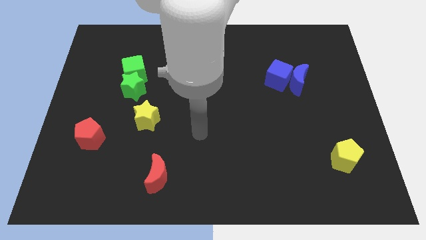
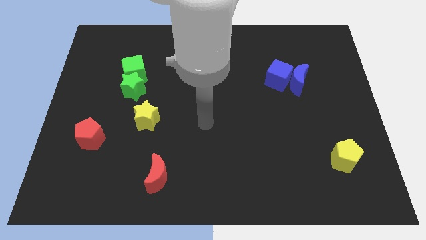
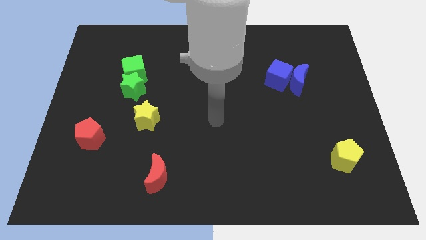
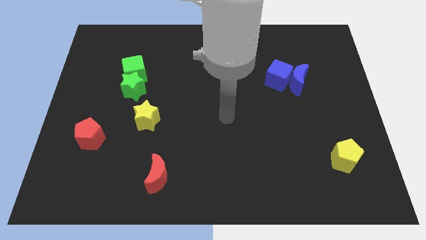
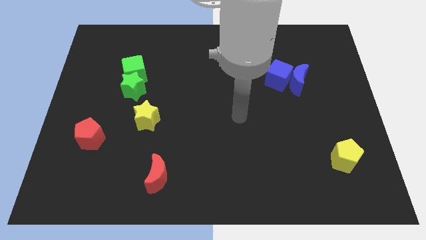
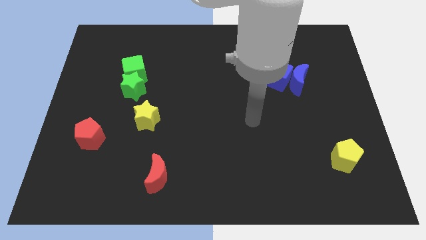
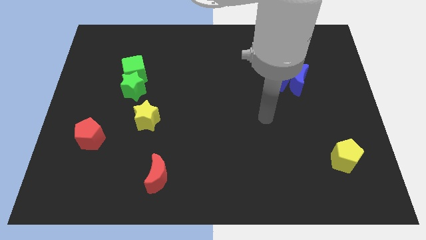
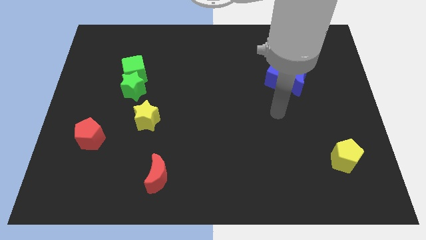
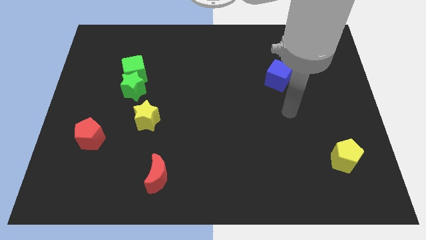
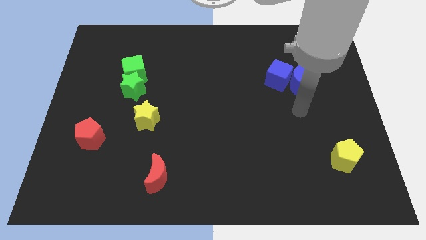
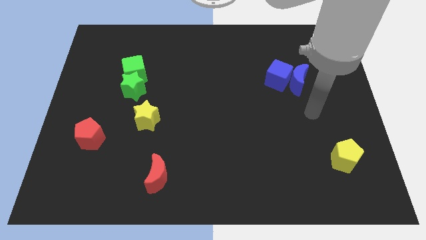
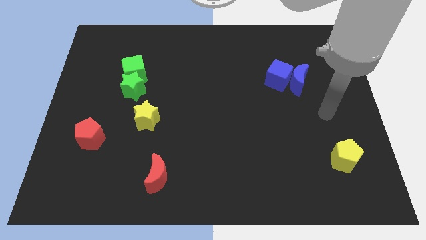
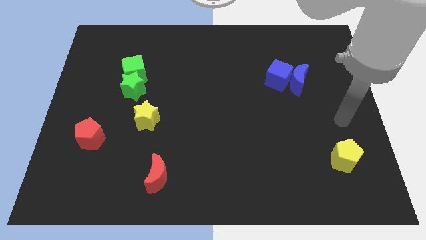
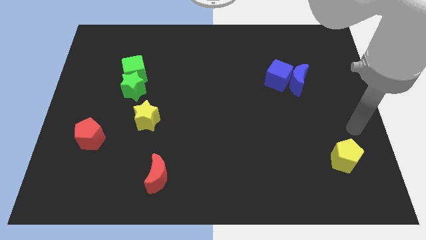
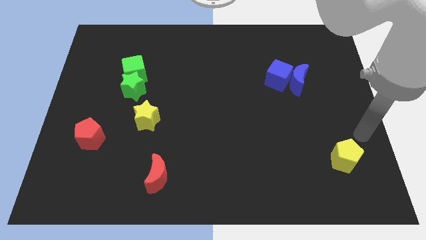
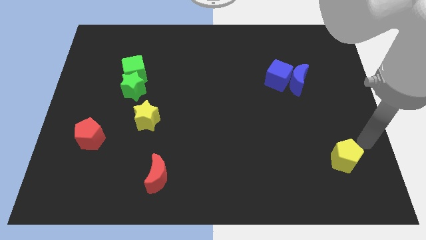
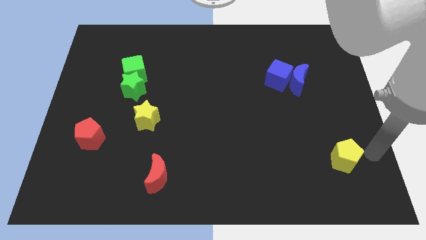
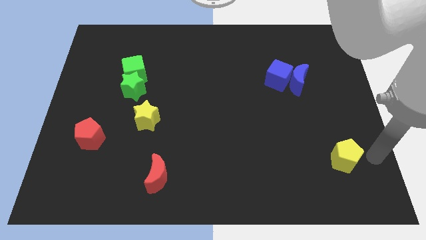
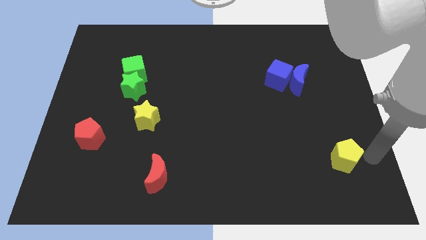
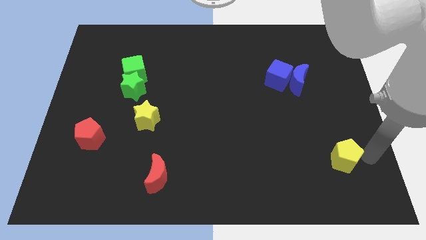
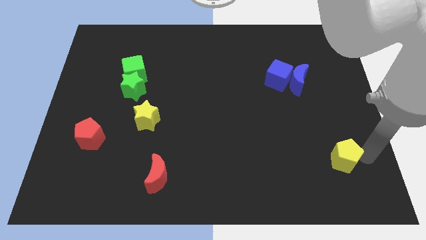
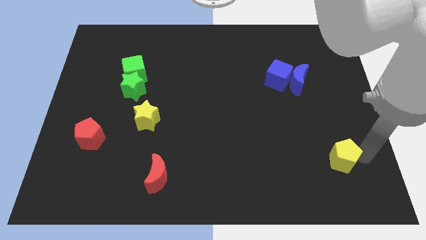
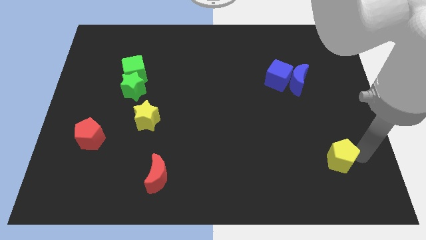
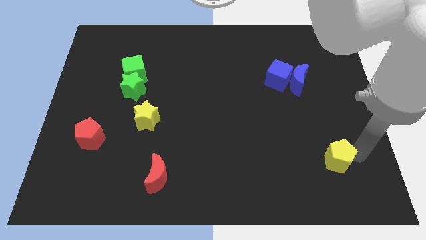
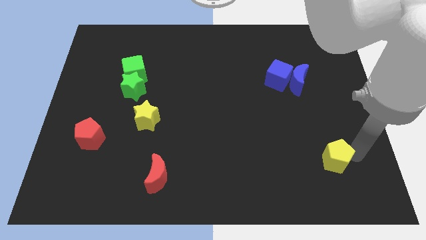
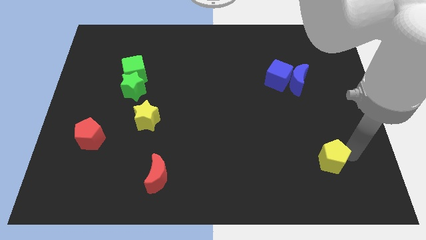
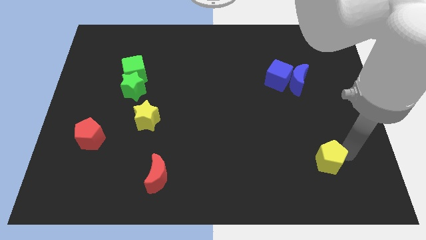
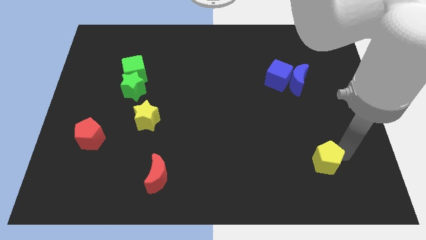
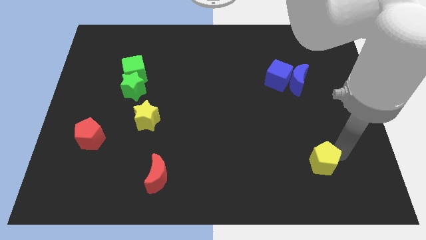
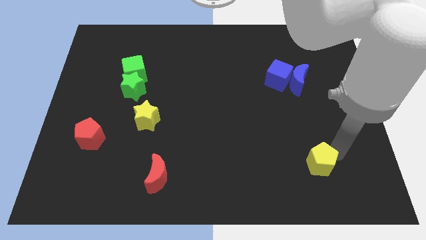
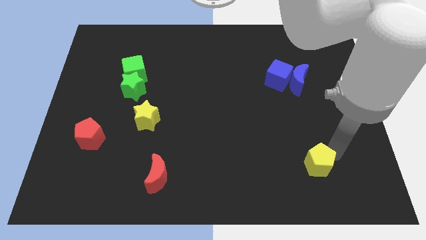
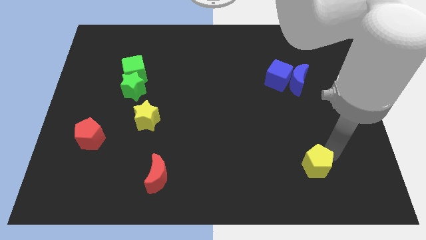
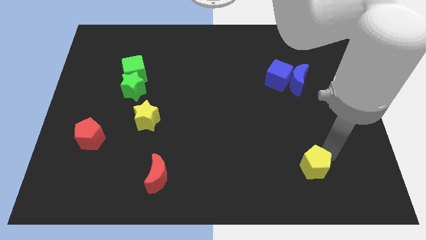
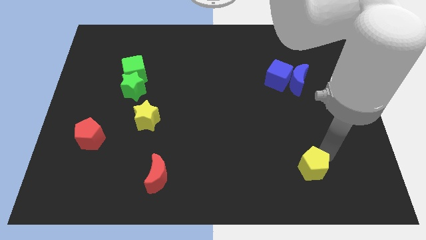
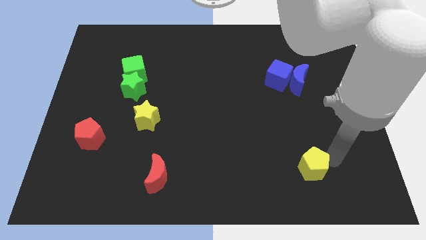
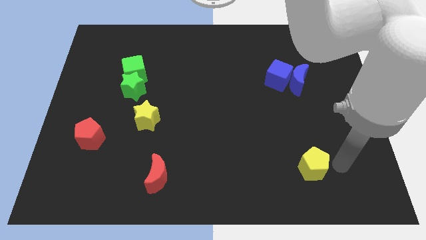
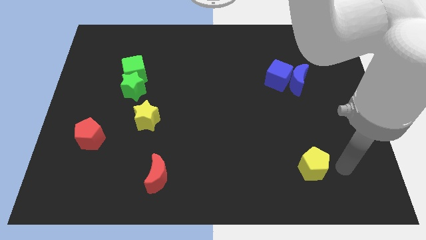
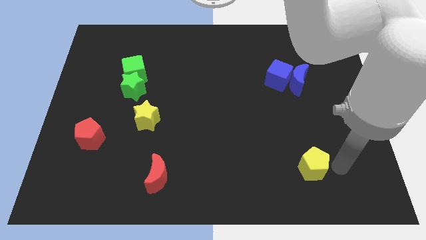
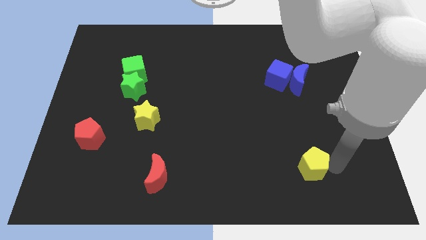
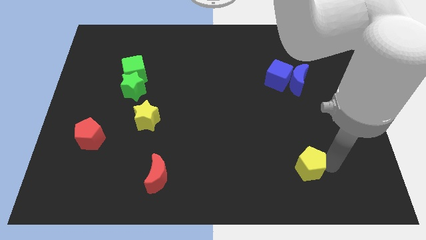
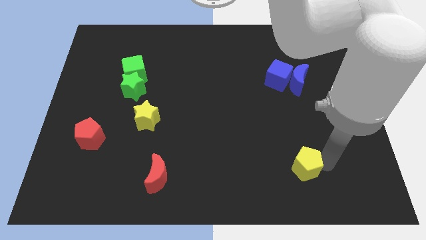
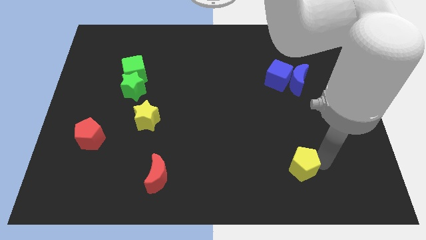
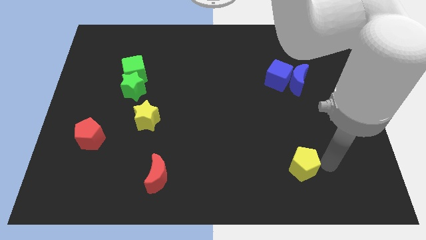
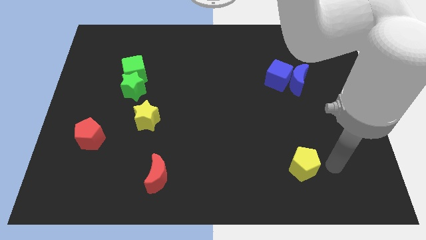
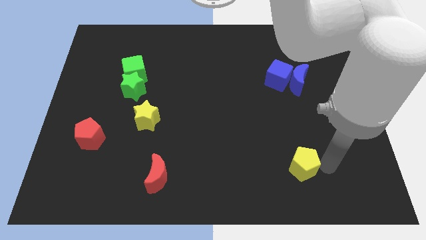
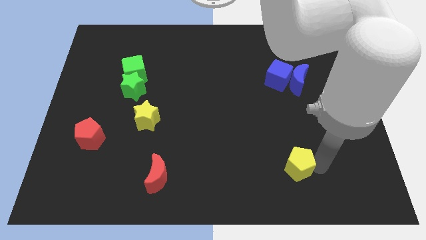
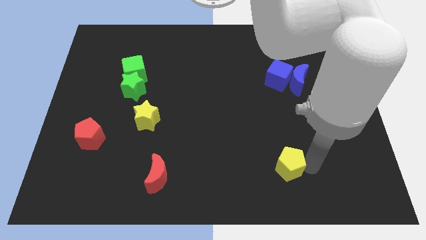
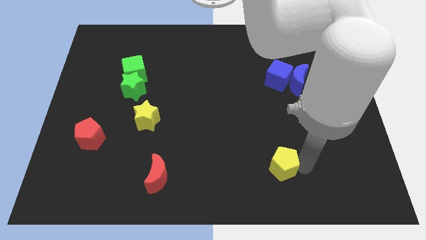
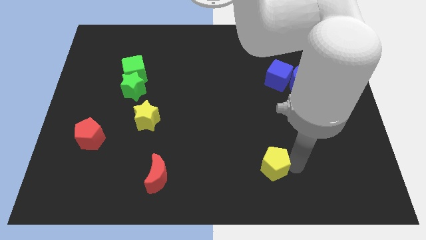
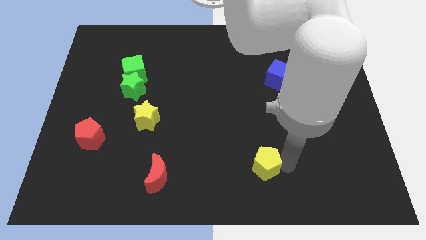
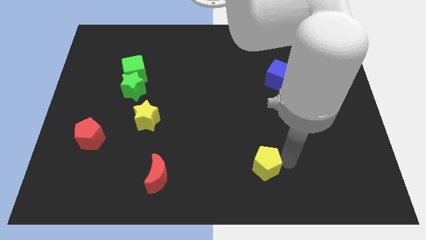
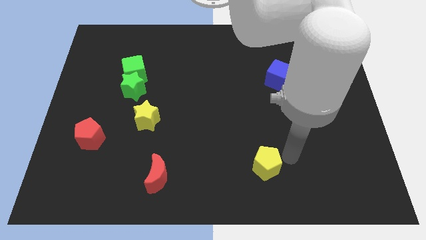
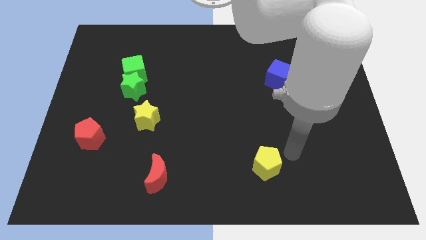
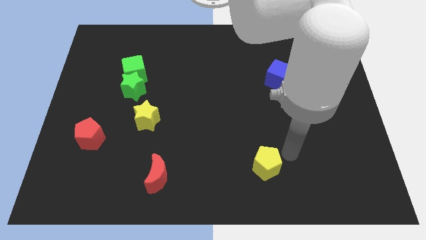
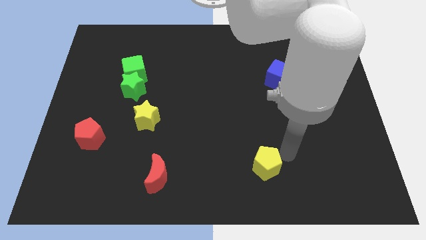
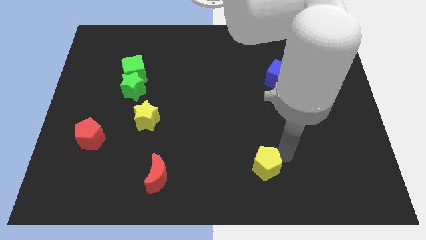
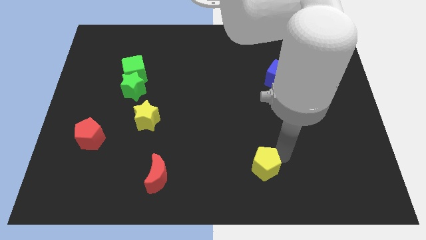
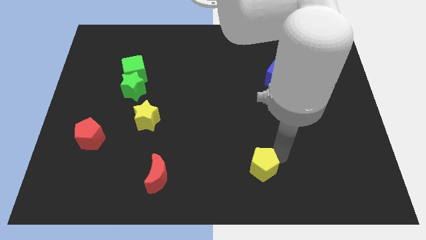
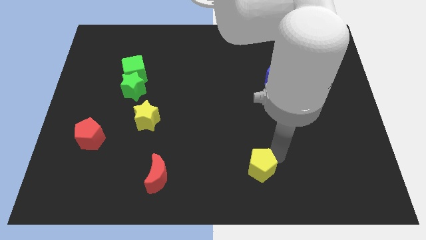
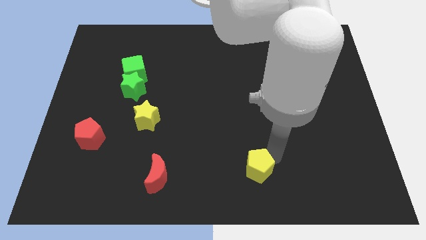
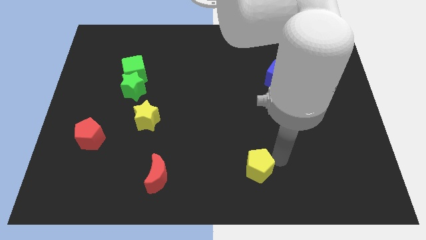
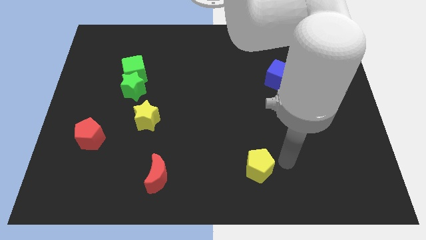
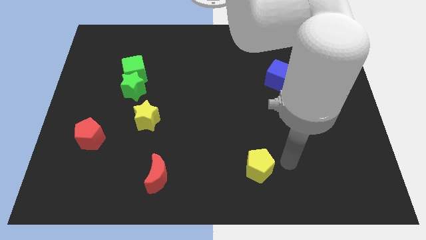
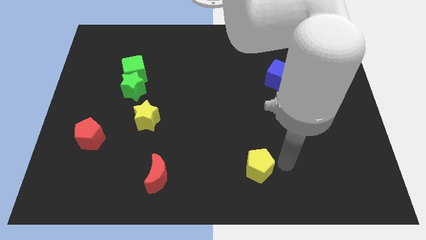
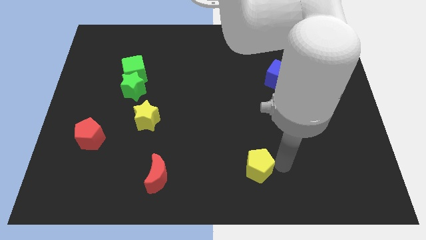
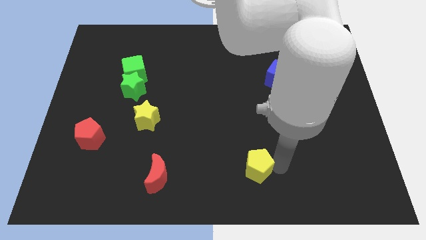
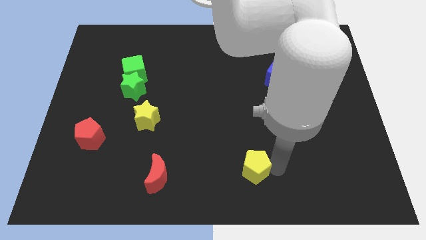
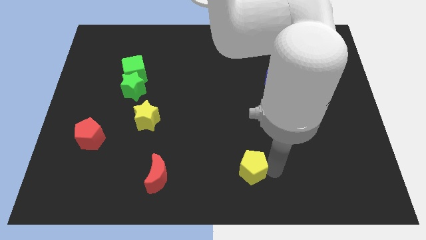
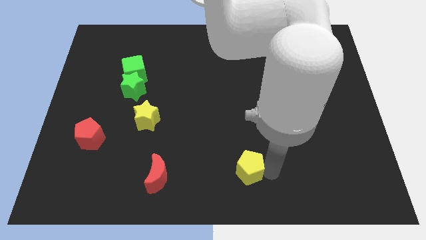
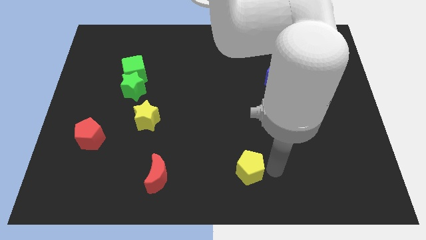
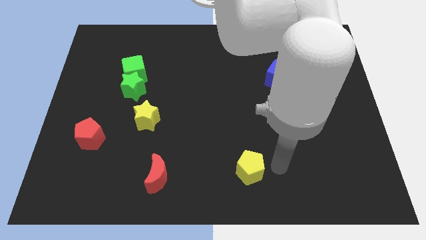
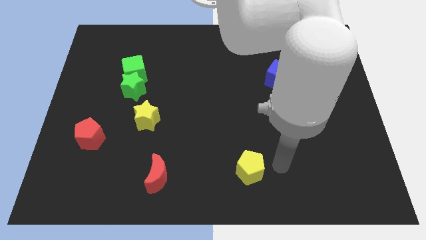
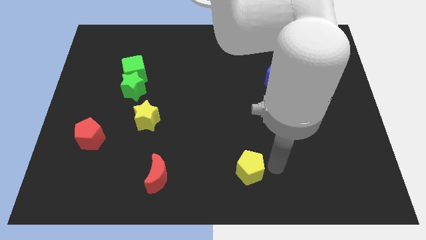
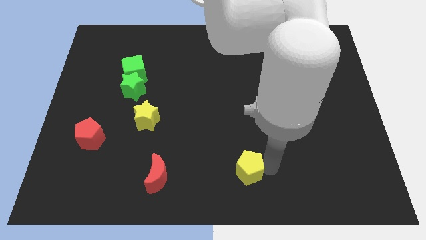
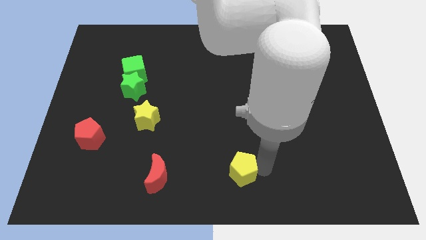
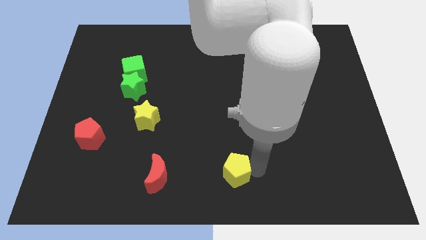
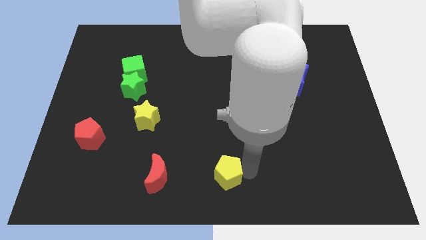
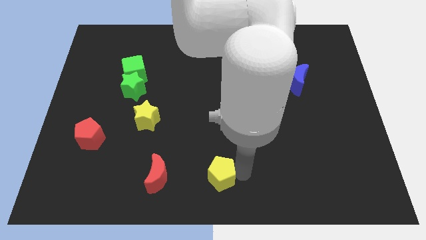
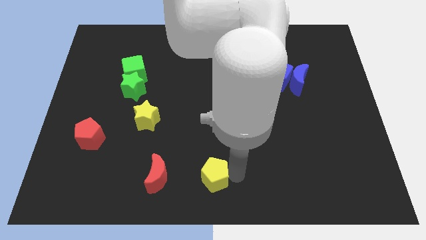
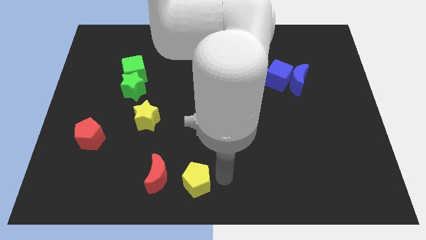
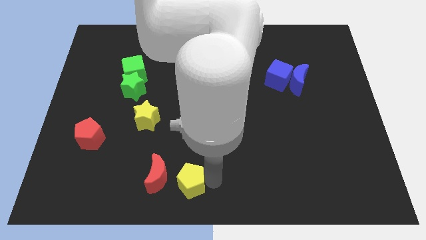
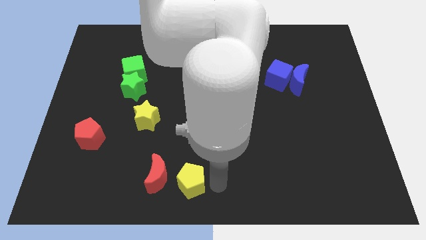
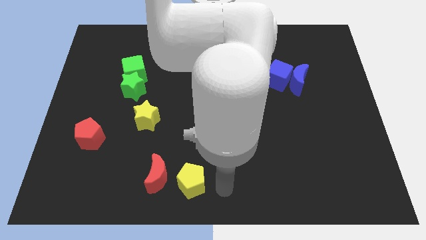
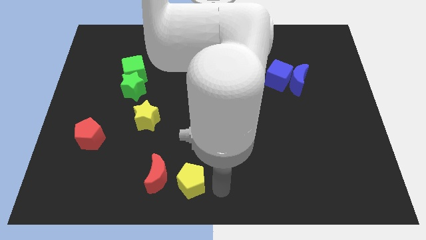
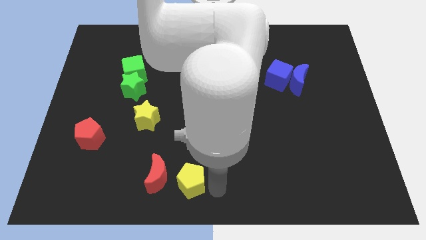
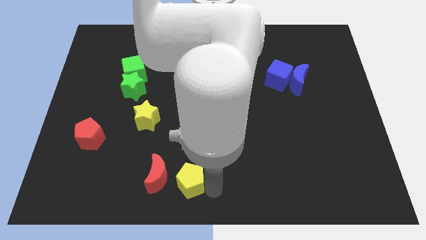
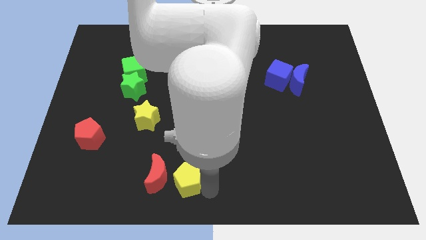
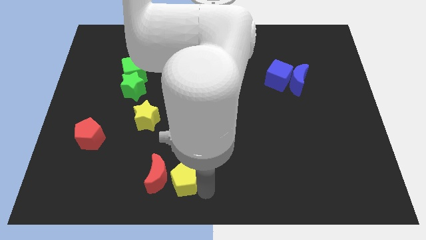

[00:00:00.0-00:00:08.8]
put the yellow pentagon next to the red moon
